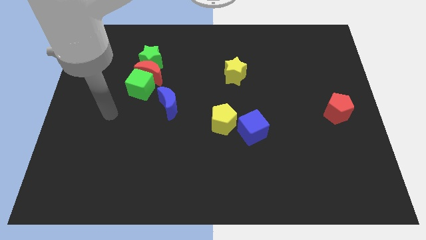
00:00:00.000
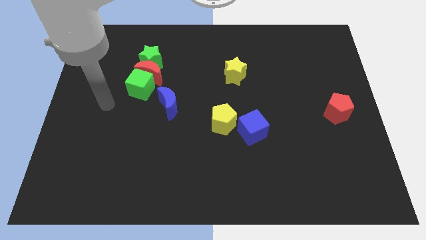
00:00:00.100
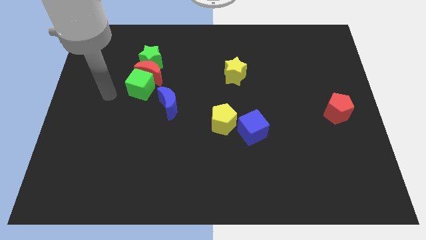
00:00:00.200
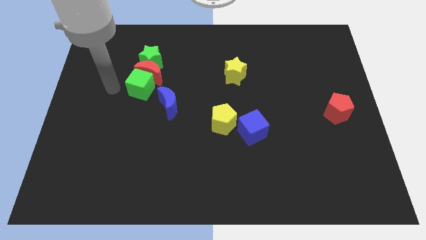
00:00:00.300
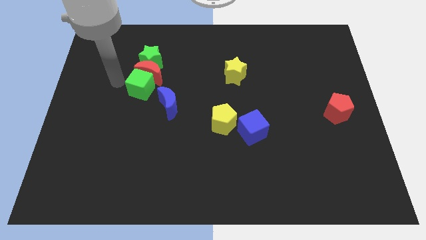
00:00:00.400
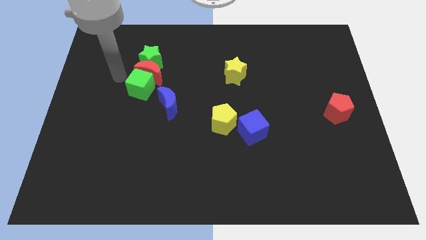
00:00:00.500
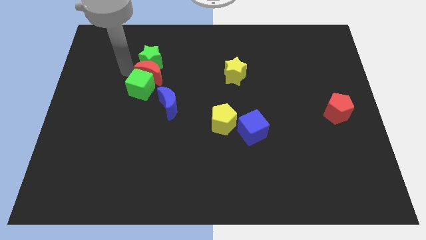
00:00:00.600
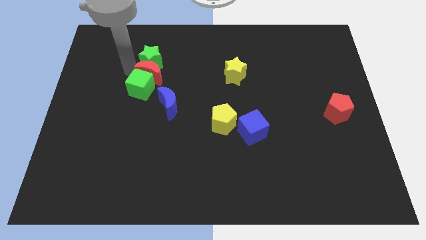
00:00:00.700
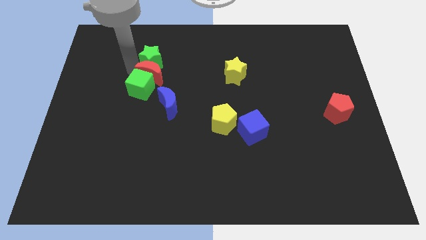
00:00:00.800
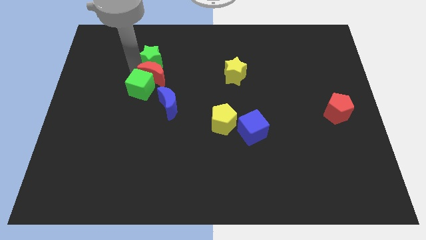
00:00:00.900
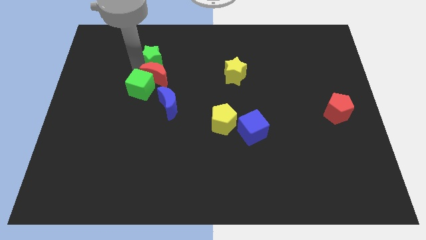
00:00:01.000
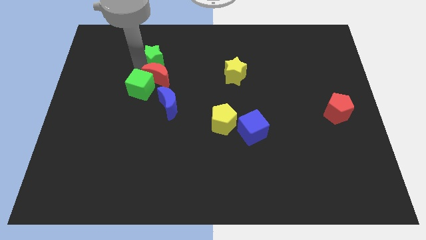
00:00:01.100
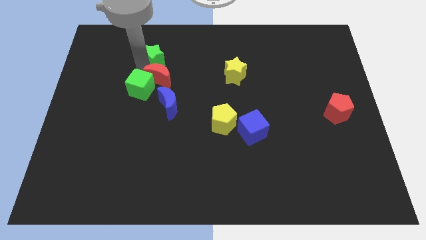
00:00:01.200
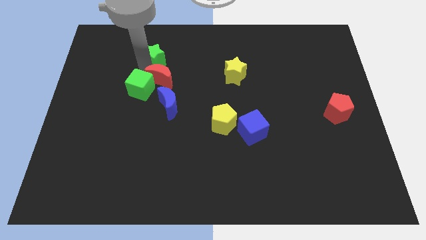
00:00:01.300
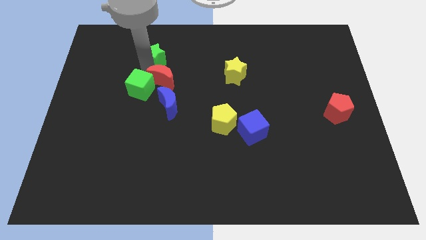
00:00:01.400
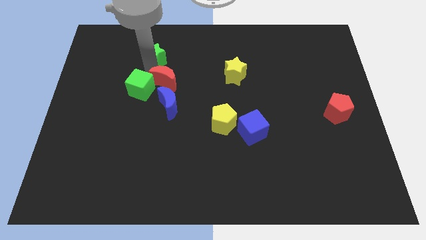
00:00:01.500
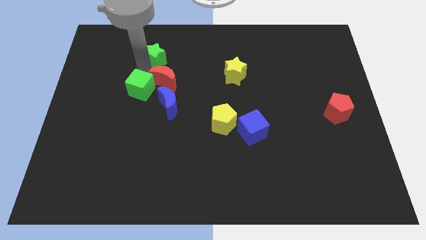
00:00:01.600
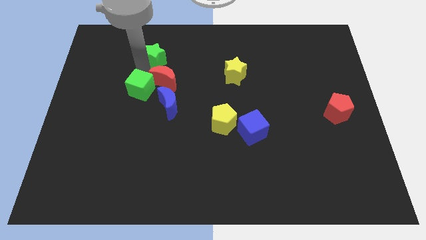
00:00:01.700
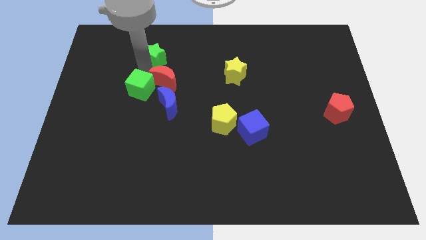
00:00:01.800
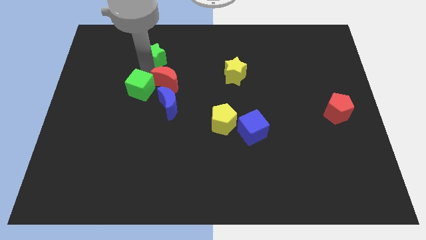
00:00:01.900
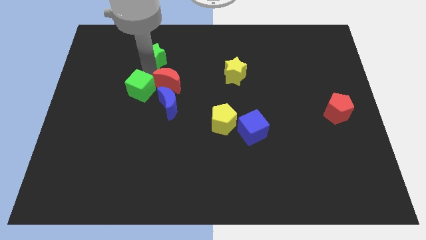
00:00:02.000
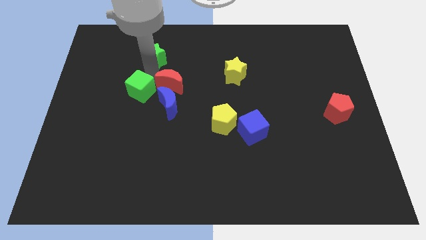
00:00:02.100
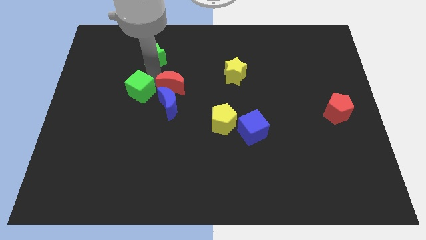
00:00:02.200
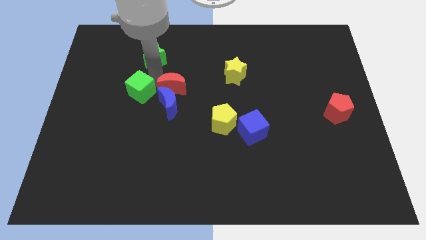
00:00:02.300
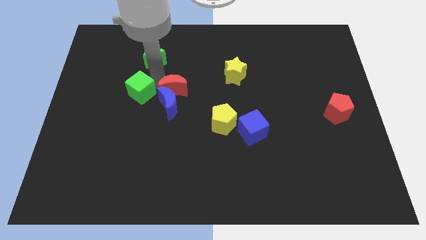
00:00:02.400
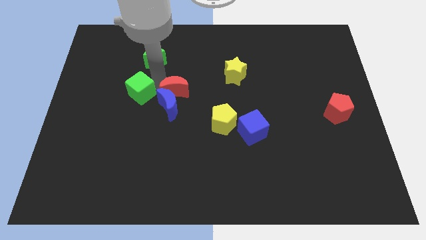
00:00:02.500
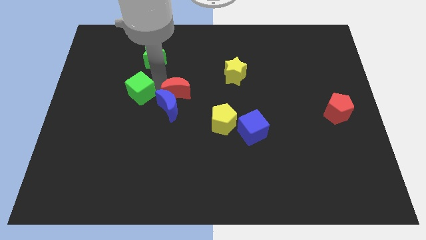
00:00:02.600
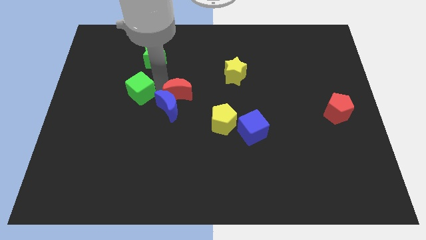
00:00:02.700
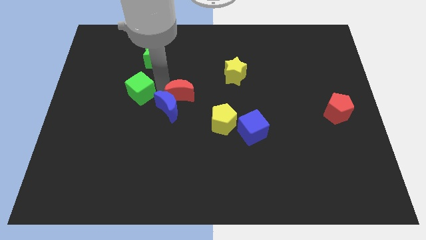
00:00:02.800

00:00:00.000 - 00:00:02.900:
pull the red moon apart from the green star and green cube

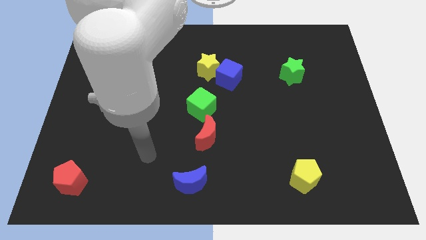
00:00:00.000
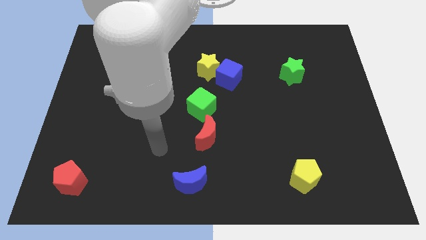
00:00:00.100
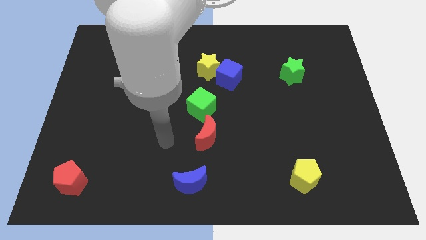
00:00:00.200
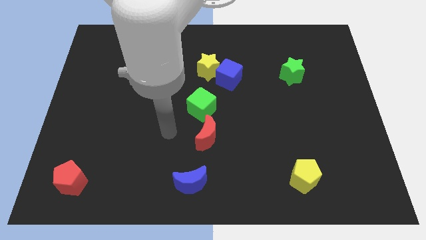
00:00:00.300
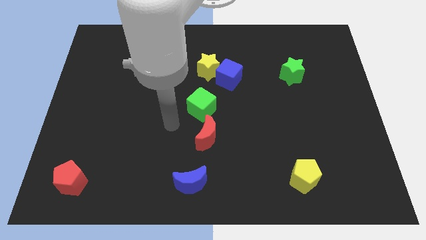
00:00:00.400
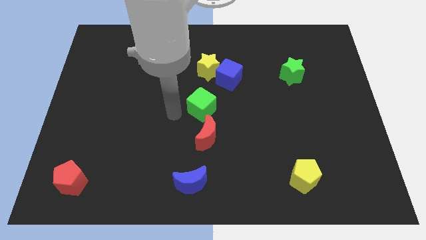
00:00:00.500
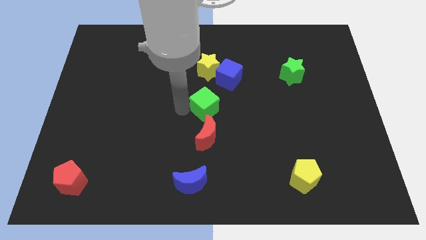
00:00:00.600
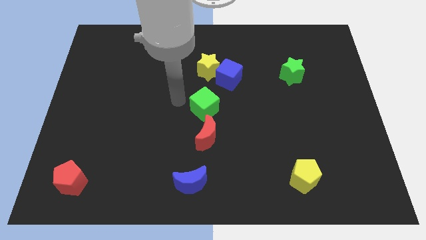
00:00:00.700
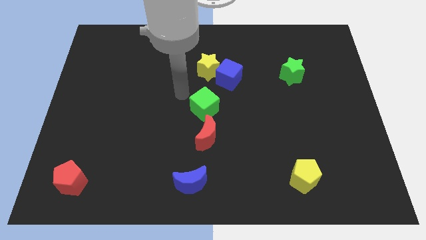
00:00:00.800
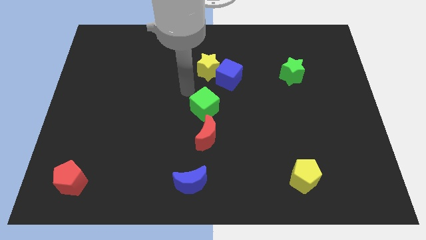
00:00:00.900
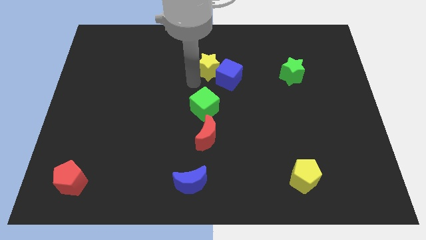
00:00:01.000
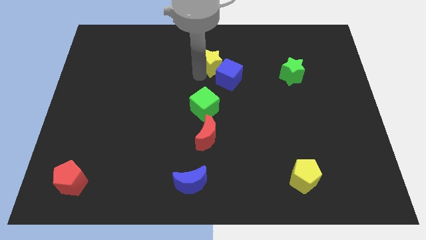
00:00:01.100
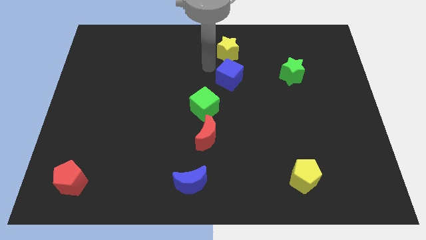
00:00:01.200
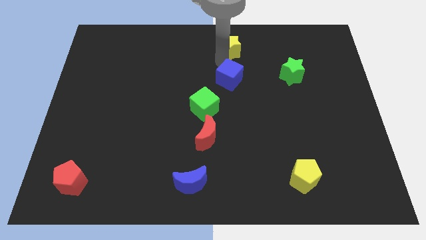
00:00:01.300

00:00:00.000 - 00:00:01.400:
pull the blue cube apart from the yellow star

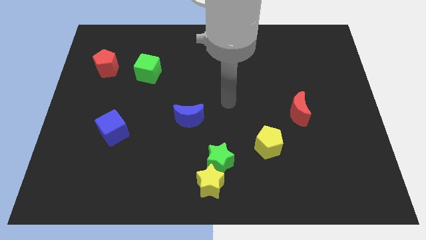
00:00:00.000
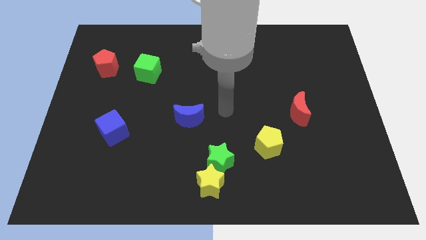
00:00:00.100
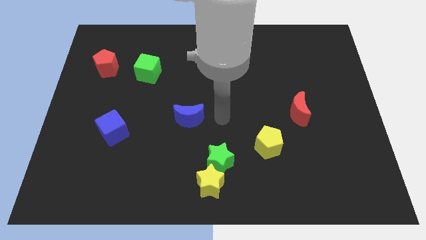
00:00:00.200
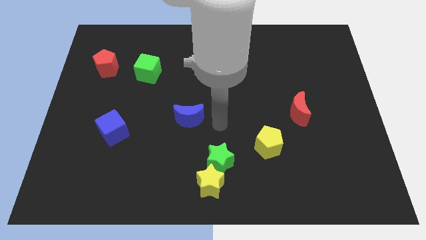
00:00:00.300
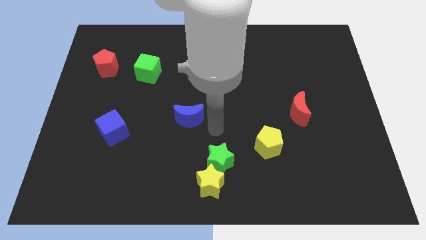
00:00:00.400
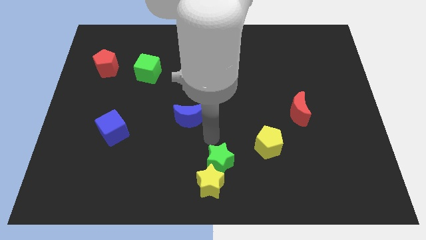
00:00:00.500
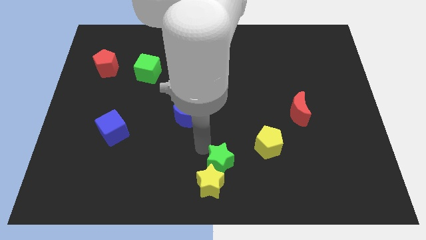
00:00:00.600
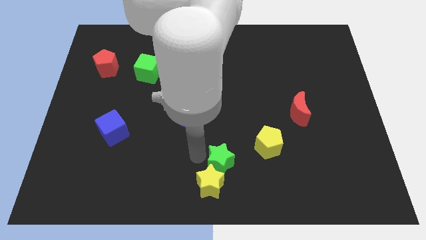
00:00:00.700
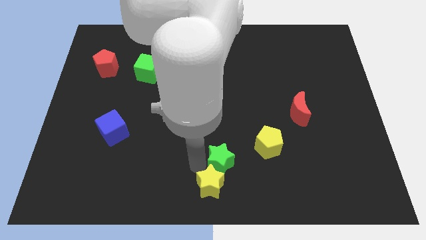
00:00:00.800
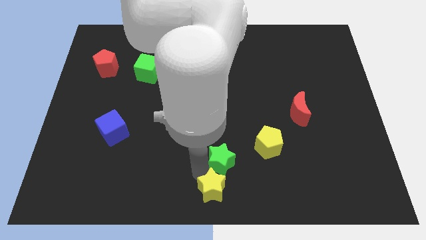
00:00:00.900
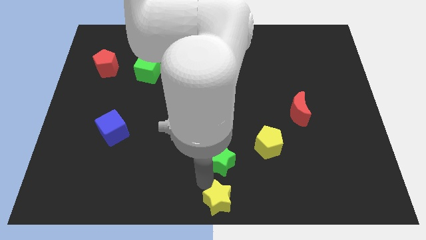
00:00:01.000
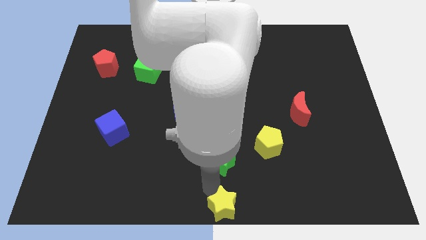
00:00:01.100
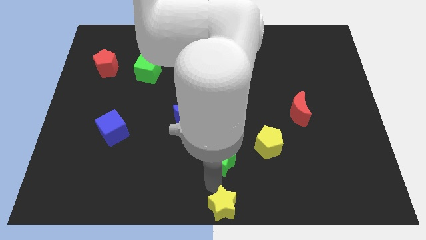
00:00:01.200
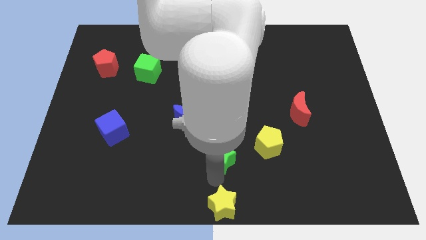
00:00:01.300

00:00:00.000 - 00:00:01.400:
move the green star away from the yellow star

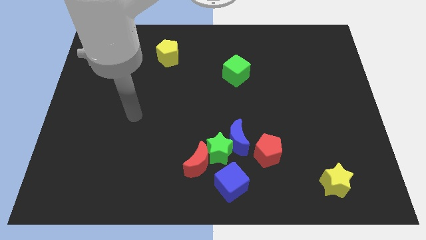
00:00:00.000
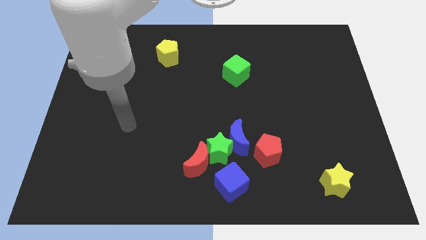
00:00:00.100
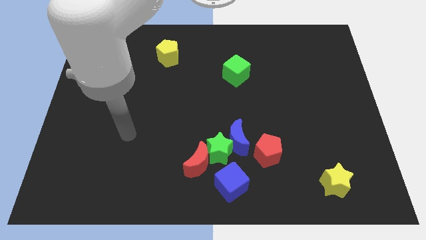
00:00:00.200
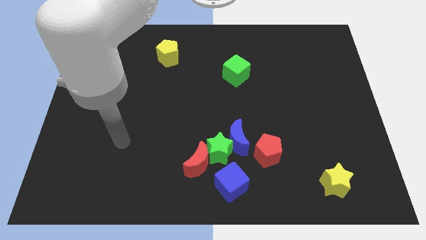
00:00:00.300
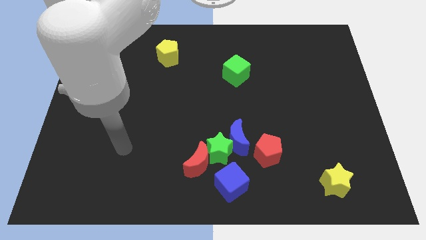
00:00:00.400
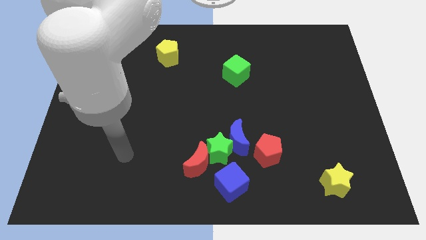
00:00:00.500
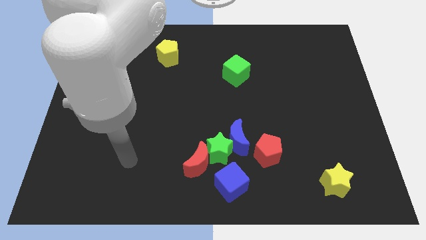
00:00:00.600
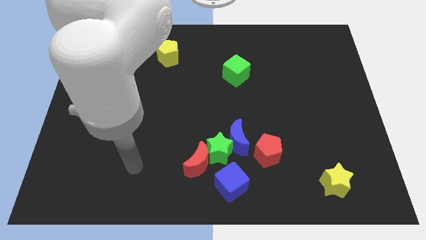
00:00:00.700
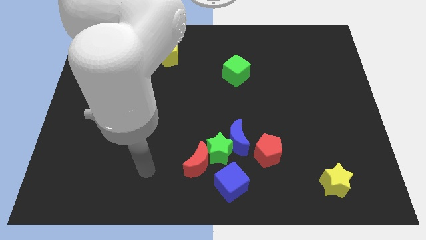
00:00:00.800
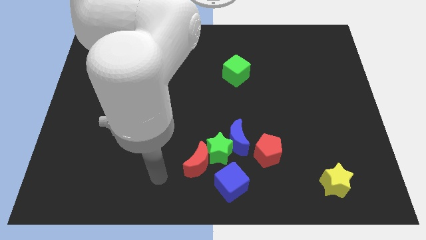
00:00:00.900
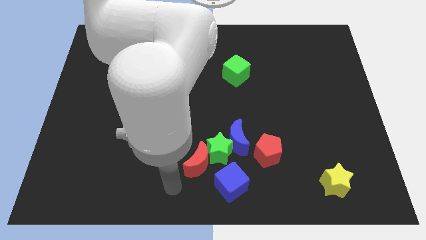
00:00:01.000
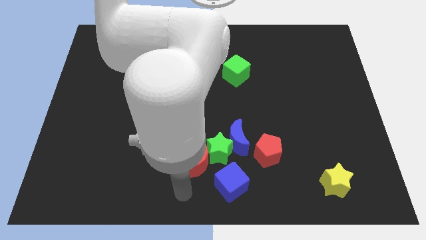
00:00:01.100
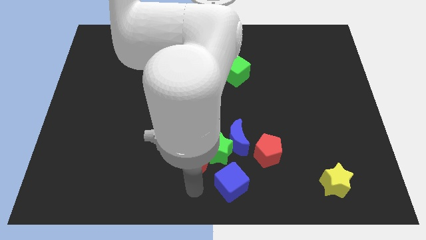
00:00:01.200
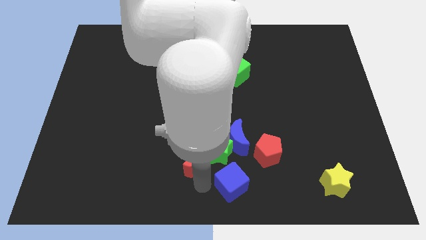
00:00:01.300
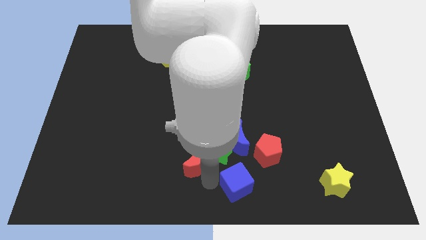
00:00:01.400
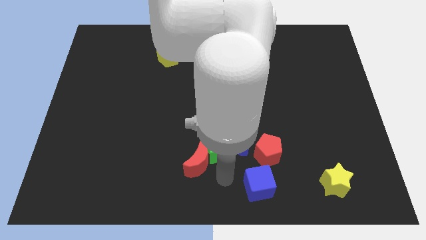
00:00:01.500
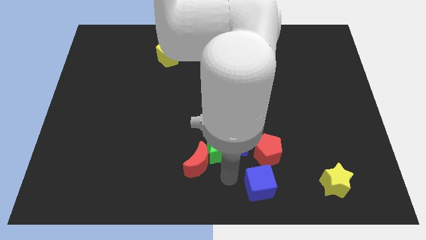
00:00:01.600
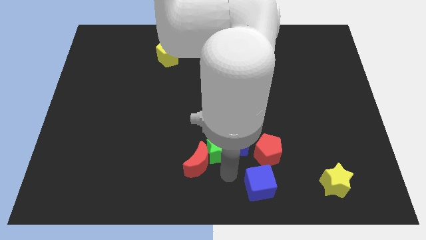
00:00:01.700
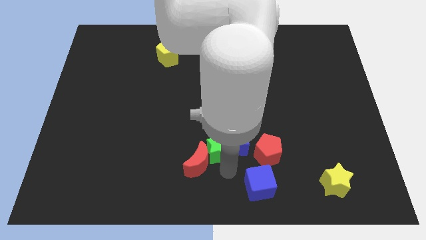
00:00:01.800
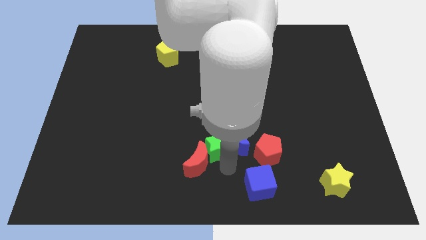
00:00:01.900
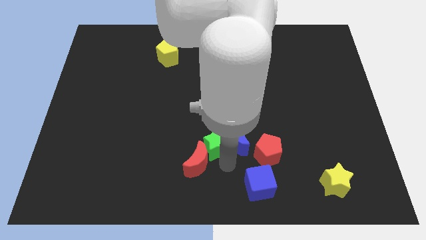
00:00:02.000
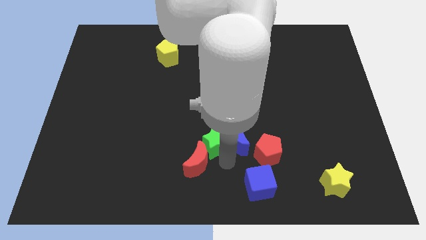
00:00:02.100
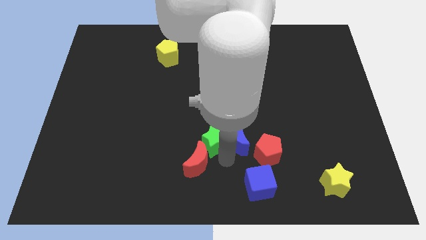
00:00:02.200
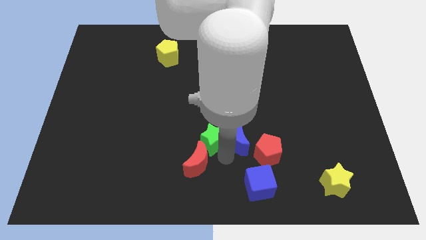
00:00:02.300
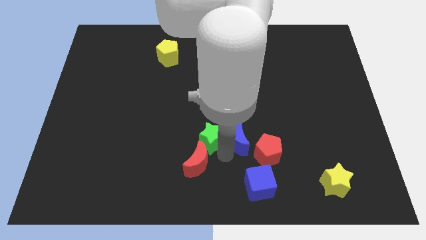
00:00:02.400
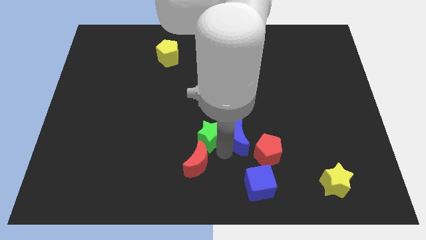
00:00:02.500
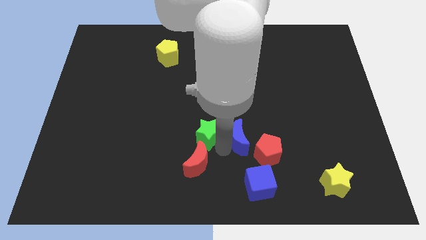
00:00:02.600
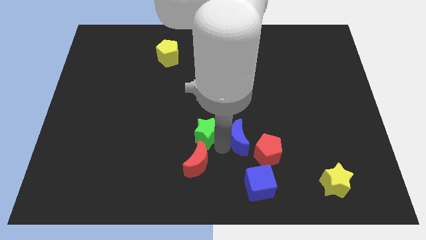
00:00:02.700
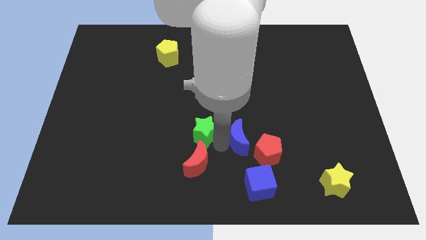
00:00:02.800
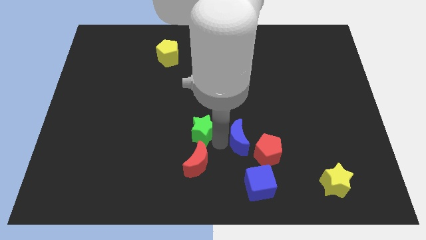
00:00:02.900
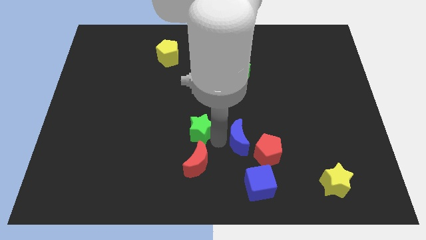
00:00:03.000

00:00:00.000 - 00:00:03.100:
pull the green star apart from the clump

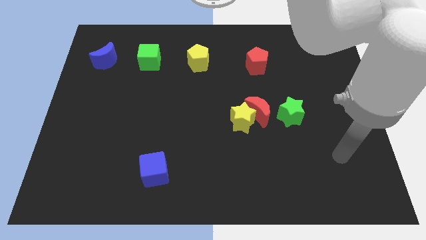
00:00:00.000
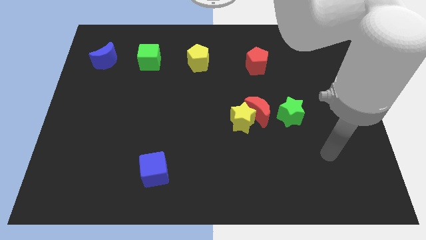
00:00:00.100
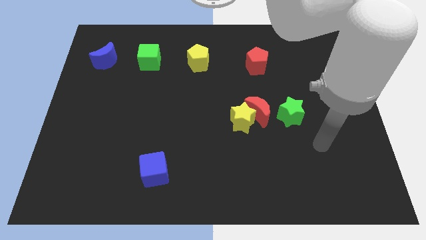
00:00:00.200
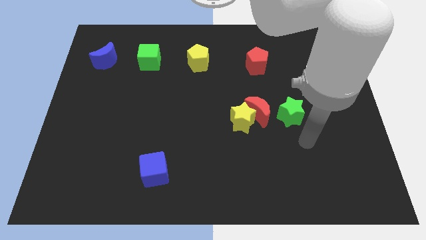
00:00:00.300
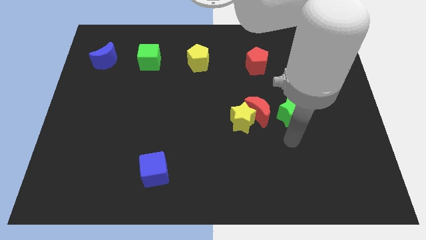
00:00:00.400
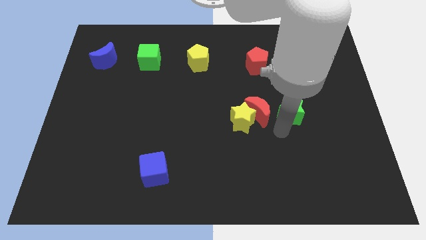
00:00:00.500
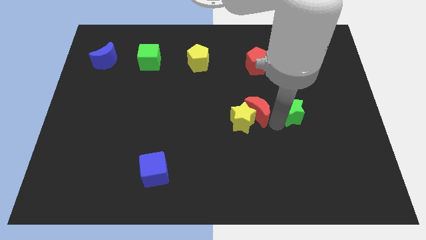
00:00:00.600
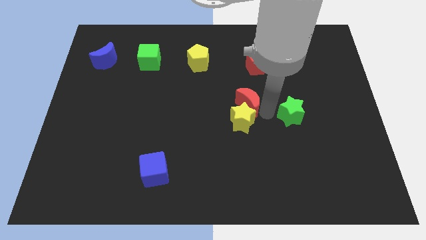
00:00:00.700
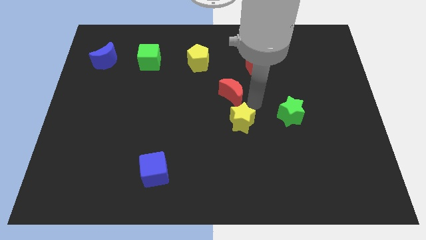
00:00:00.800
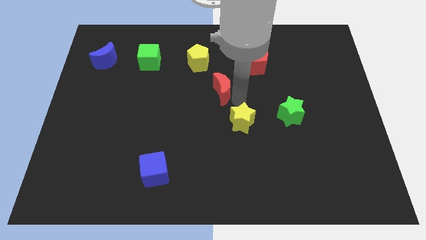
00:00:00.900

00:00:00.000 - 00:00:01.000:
move the yellow star away from the red moon
